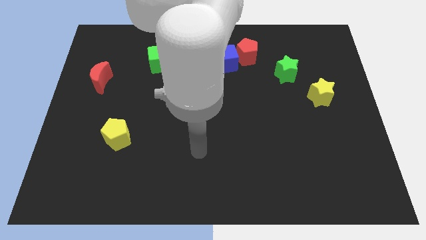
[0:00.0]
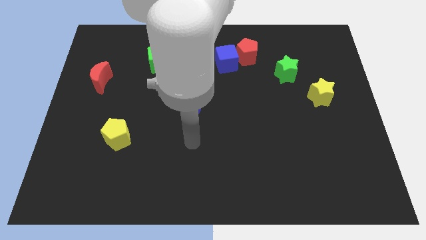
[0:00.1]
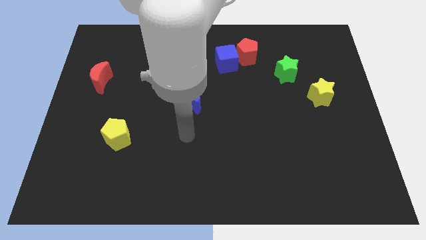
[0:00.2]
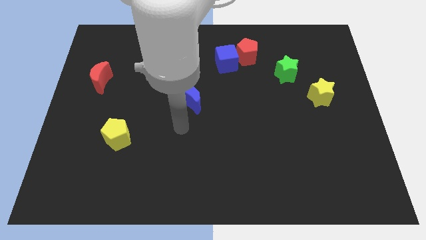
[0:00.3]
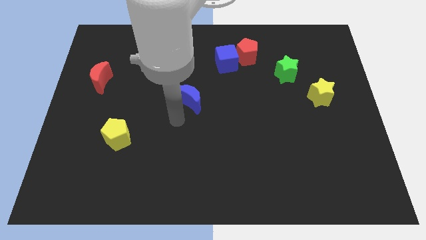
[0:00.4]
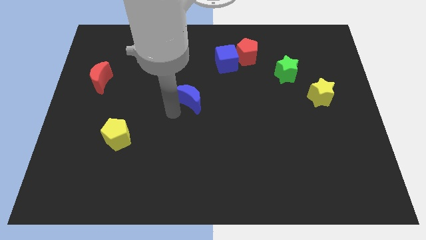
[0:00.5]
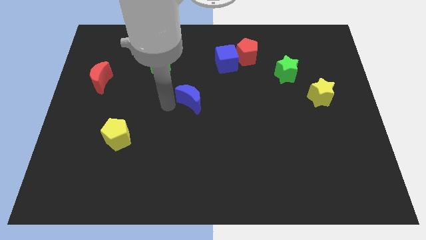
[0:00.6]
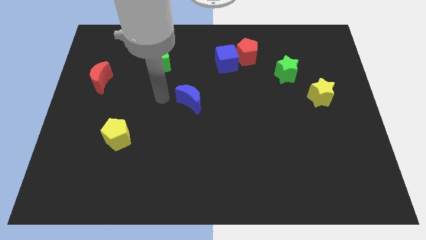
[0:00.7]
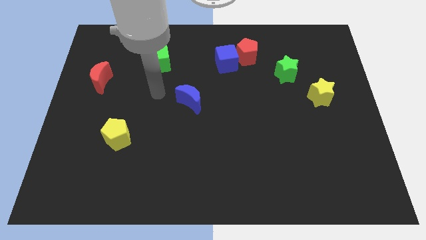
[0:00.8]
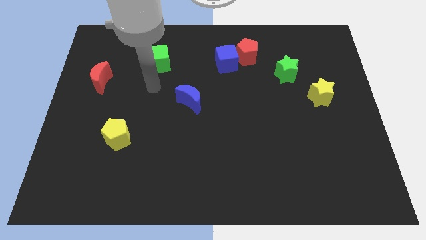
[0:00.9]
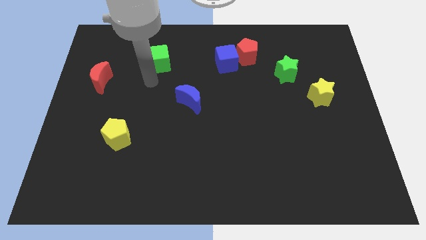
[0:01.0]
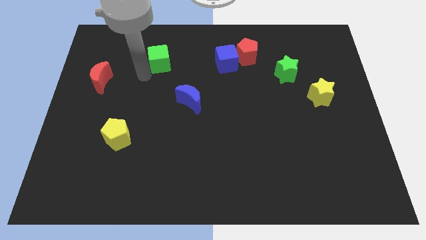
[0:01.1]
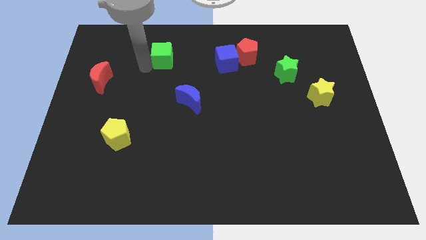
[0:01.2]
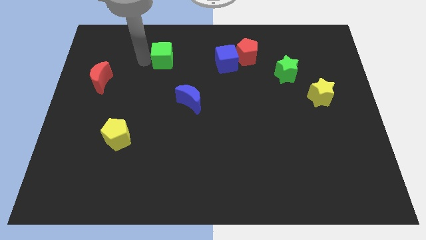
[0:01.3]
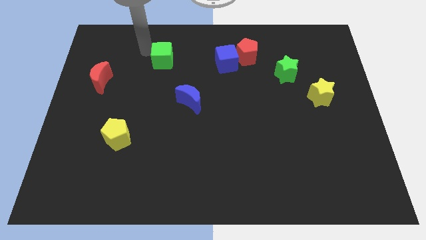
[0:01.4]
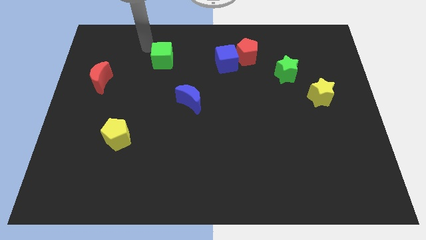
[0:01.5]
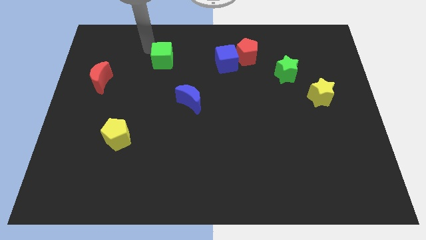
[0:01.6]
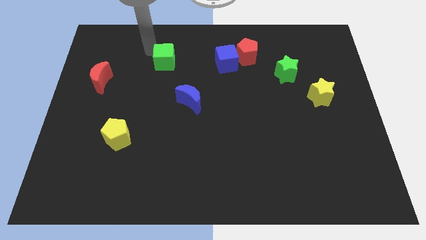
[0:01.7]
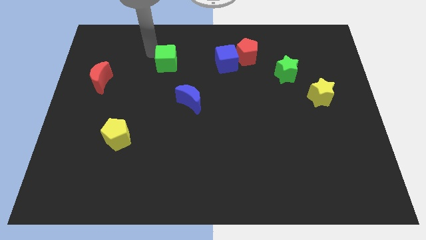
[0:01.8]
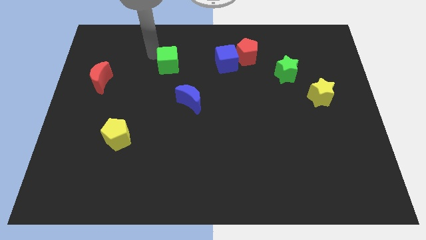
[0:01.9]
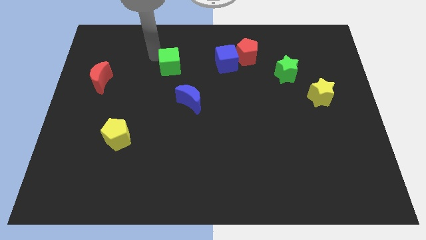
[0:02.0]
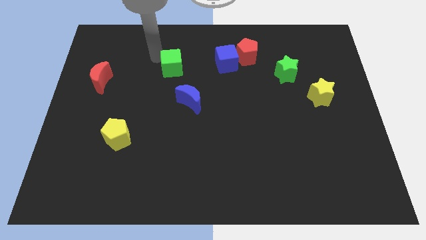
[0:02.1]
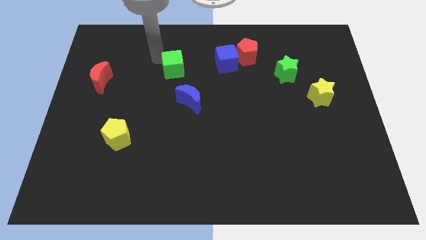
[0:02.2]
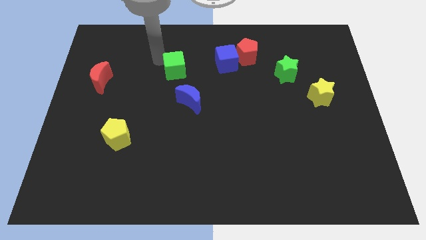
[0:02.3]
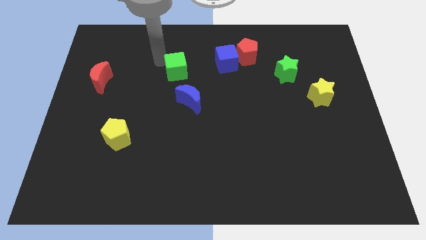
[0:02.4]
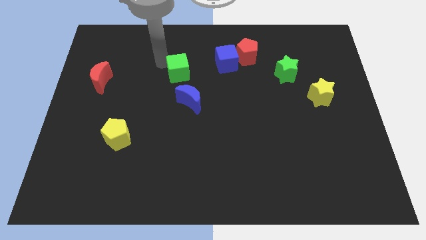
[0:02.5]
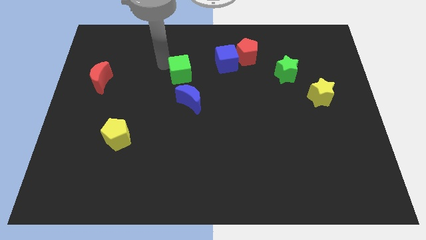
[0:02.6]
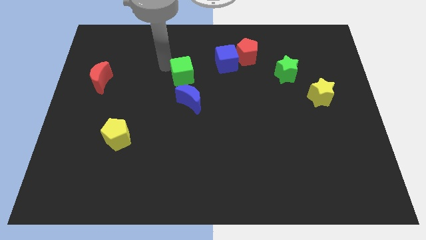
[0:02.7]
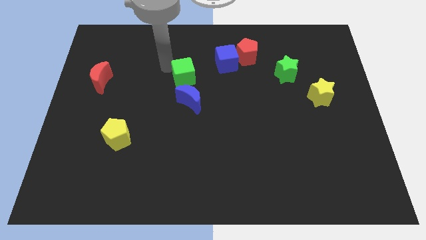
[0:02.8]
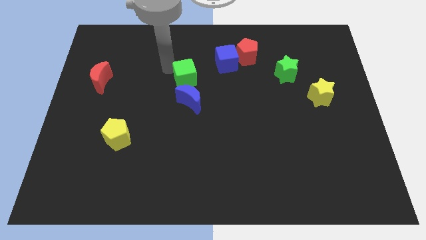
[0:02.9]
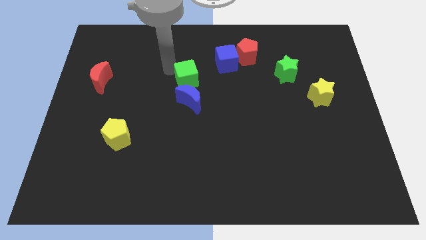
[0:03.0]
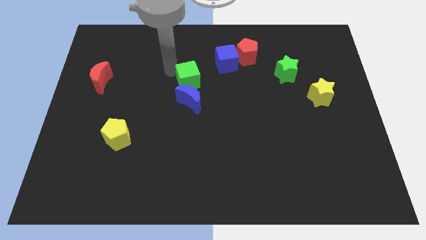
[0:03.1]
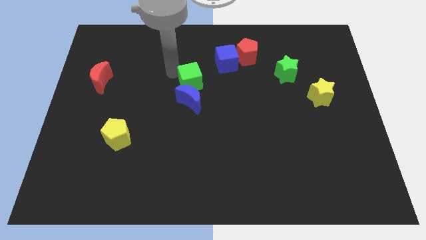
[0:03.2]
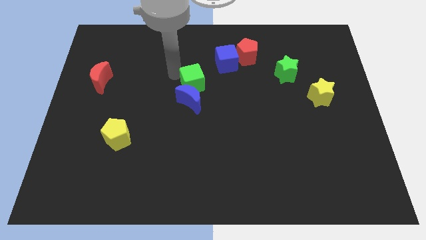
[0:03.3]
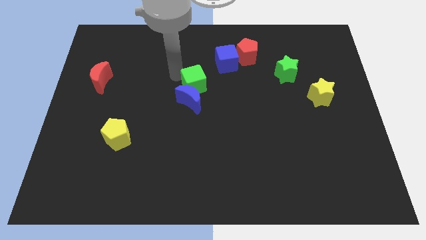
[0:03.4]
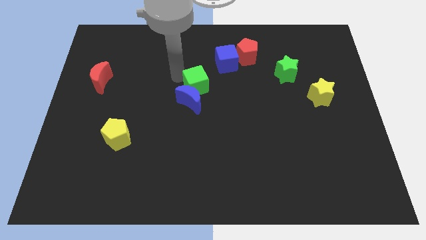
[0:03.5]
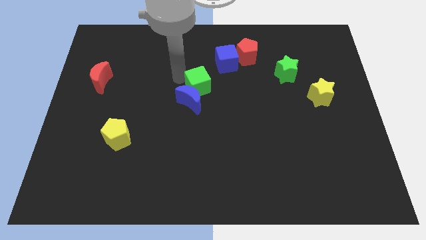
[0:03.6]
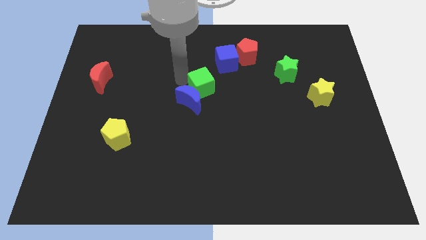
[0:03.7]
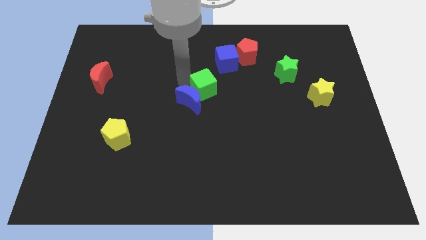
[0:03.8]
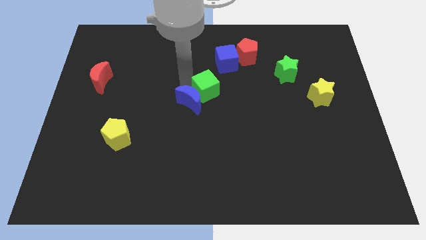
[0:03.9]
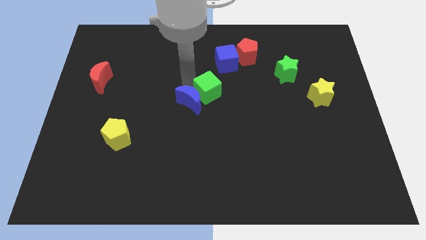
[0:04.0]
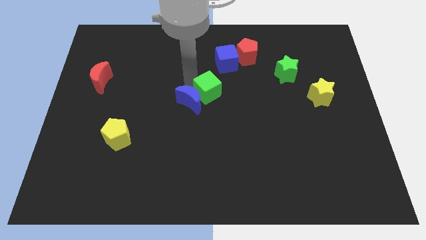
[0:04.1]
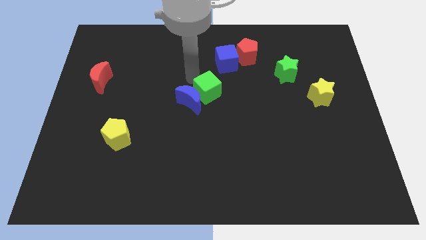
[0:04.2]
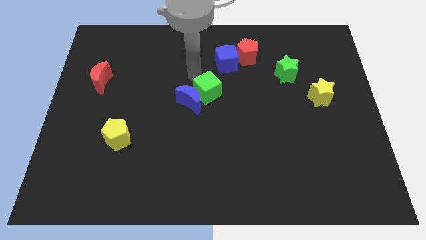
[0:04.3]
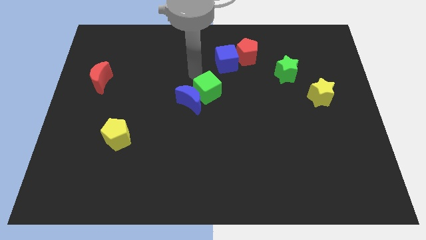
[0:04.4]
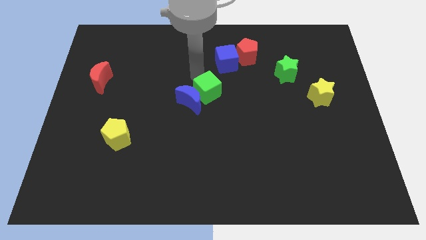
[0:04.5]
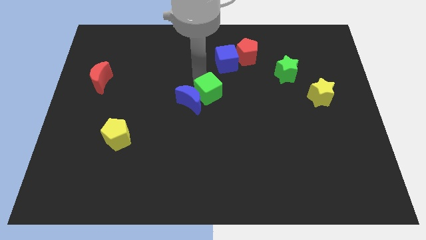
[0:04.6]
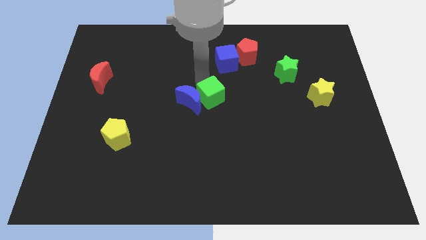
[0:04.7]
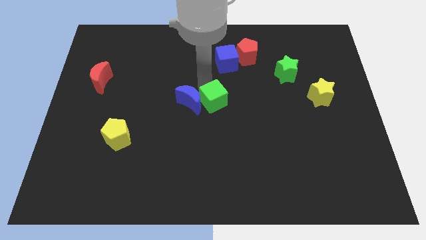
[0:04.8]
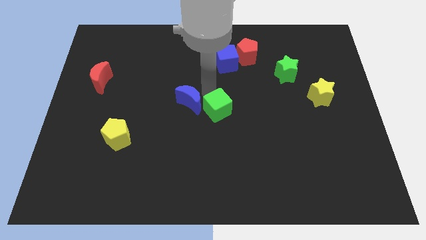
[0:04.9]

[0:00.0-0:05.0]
move the green cube down and right

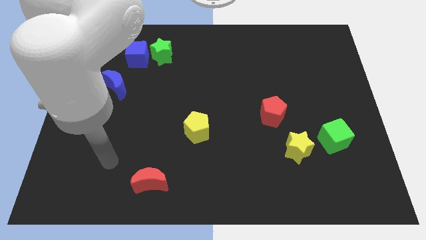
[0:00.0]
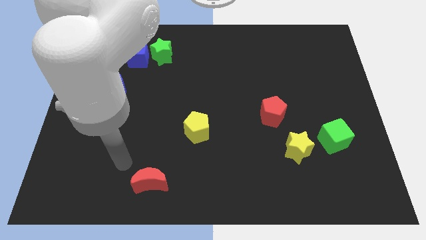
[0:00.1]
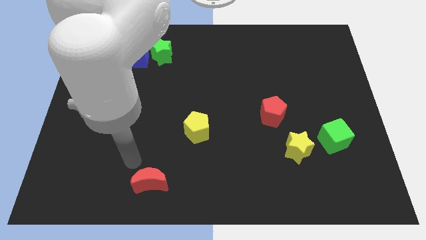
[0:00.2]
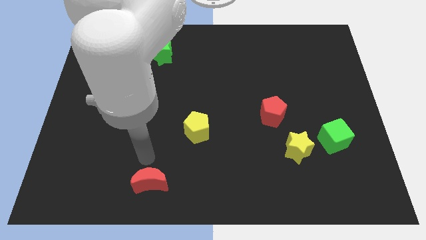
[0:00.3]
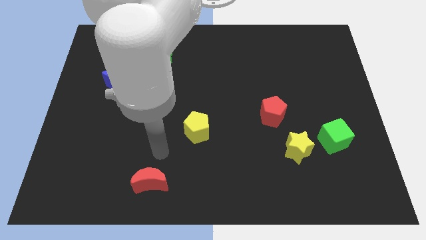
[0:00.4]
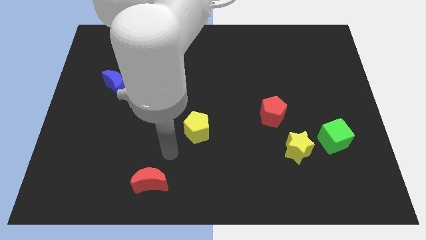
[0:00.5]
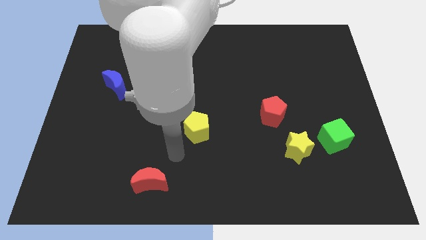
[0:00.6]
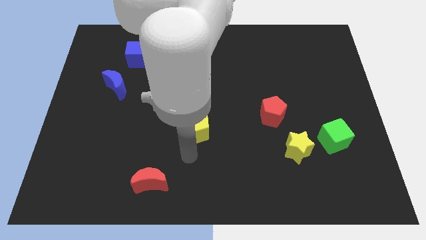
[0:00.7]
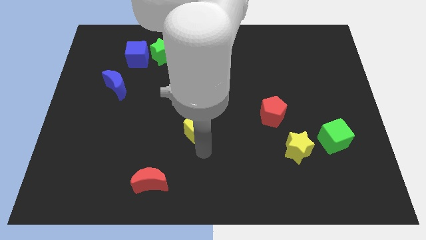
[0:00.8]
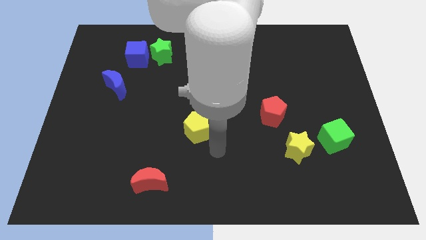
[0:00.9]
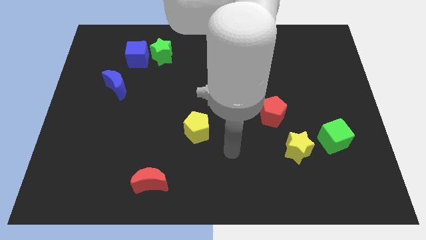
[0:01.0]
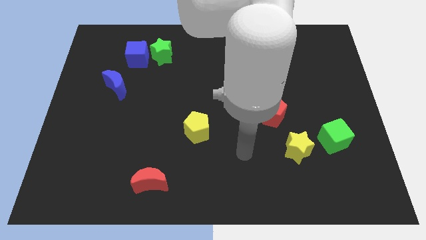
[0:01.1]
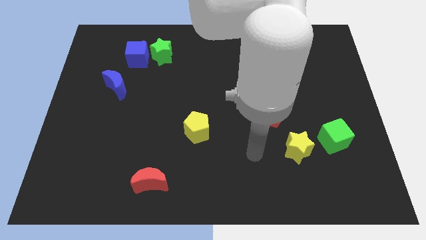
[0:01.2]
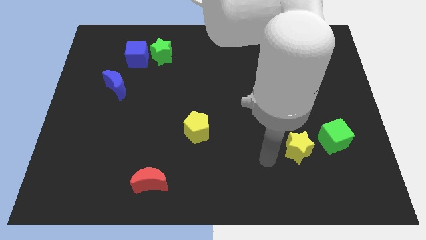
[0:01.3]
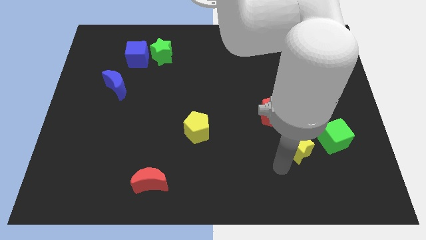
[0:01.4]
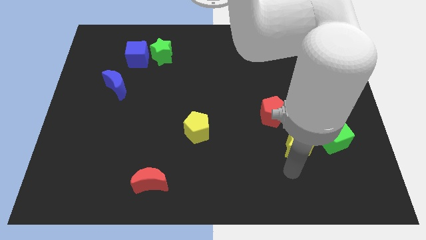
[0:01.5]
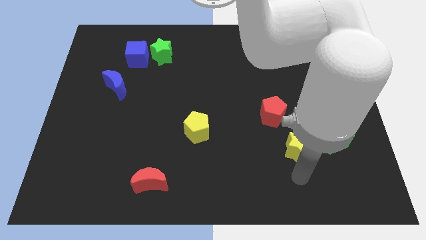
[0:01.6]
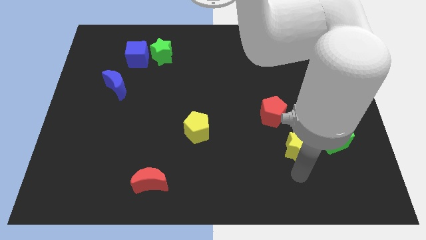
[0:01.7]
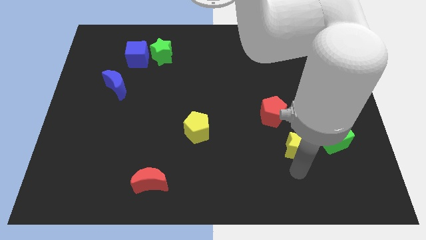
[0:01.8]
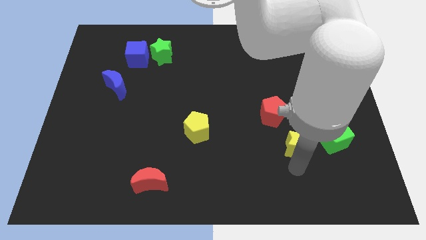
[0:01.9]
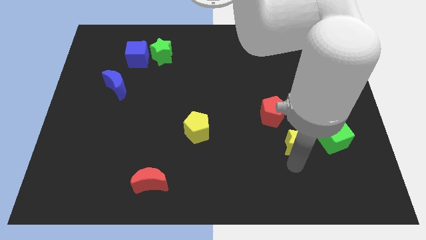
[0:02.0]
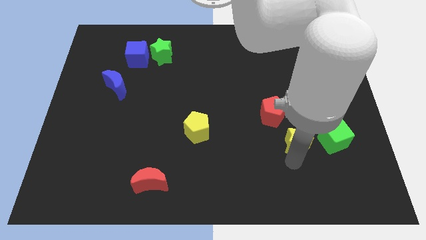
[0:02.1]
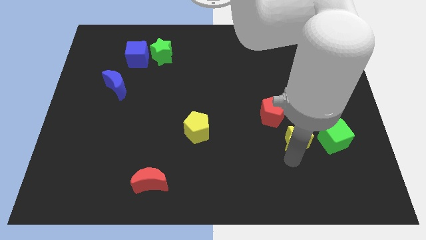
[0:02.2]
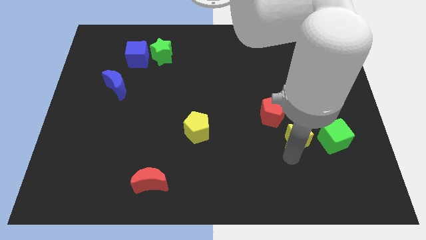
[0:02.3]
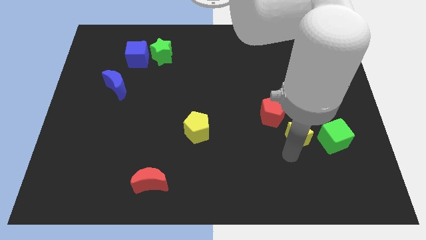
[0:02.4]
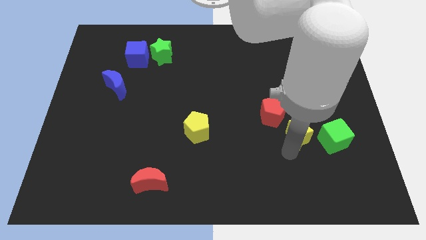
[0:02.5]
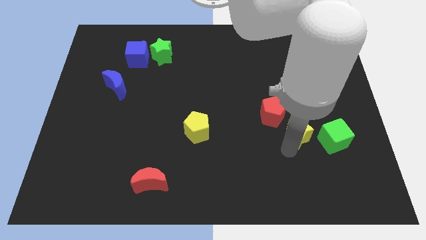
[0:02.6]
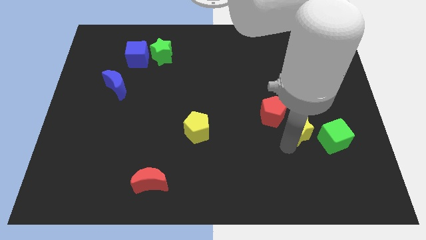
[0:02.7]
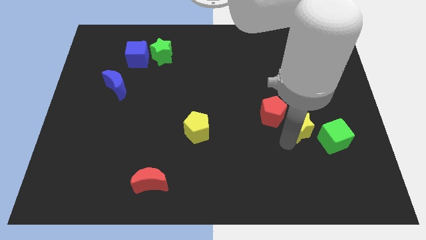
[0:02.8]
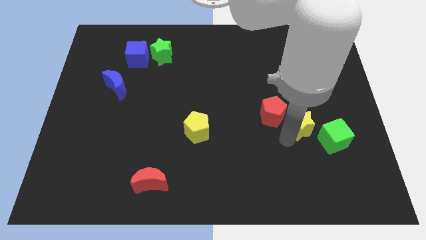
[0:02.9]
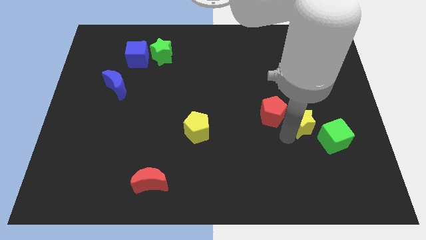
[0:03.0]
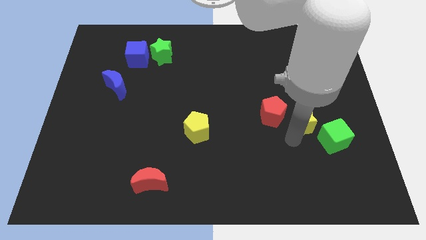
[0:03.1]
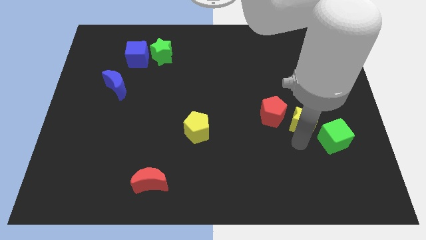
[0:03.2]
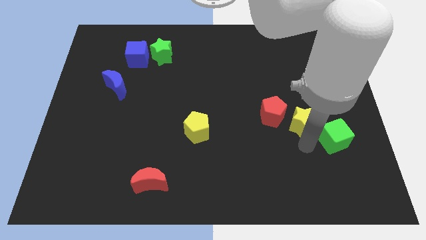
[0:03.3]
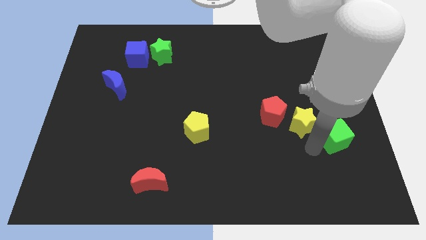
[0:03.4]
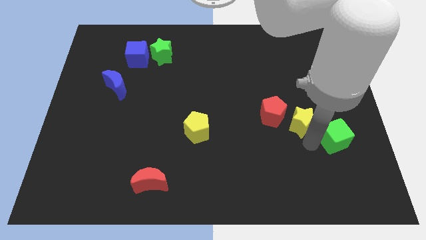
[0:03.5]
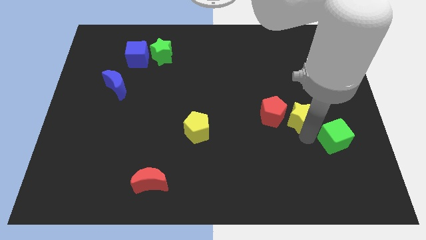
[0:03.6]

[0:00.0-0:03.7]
slightly push the yellow star up
